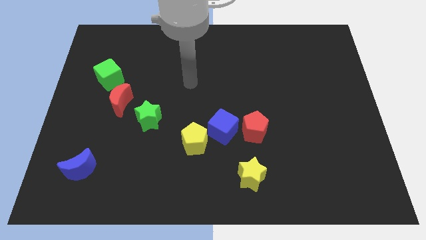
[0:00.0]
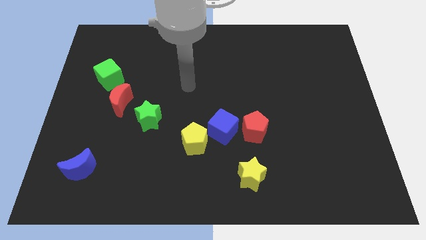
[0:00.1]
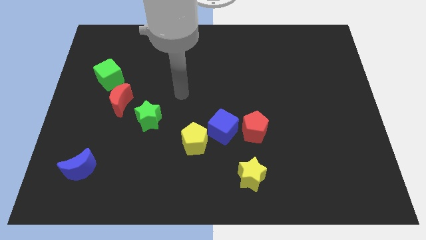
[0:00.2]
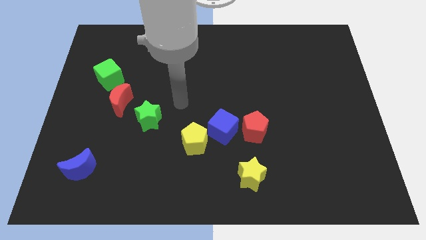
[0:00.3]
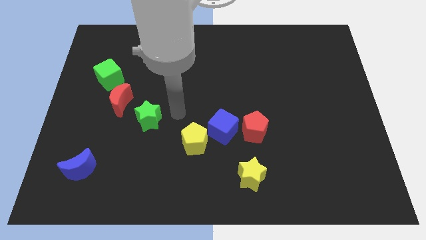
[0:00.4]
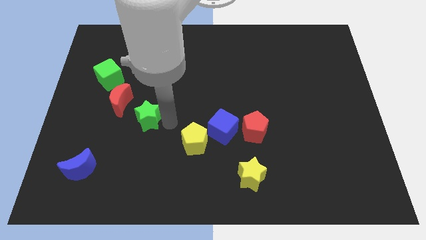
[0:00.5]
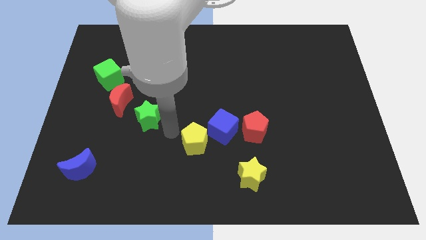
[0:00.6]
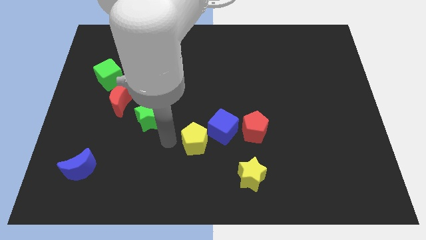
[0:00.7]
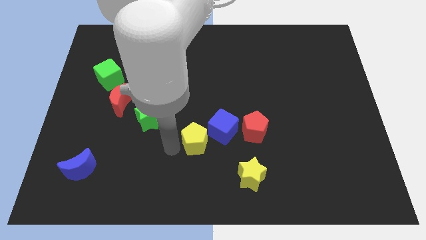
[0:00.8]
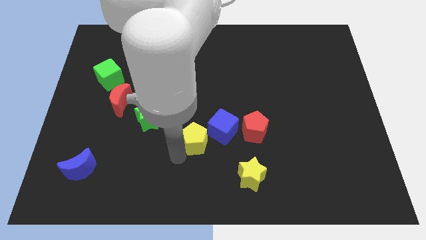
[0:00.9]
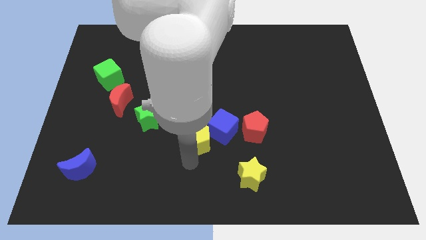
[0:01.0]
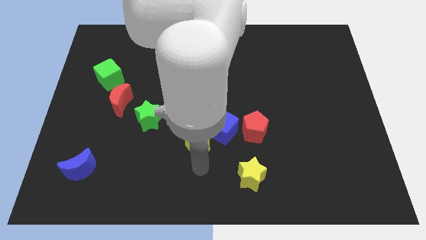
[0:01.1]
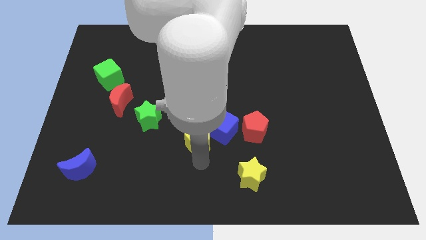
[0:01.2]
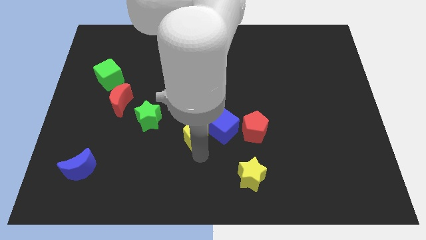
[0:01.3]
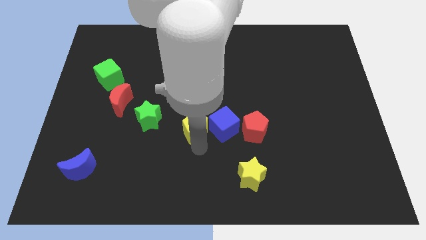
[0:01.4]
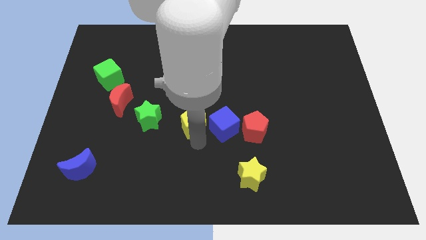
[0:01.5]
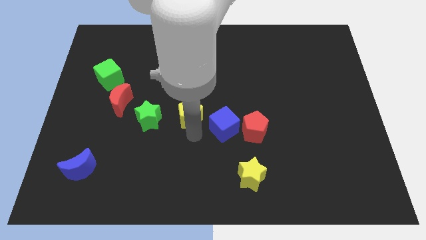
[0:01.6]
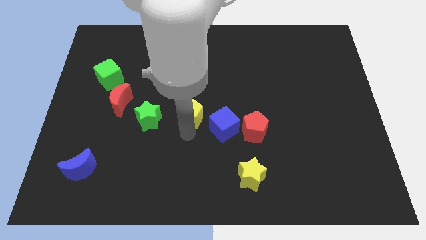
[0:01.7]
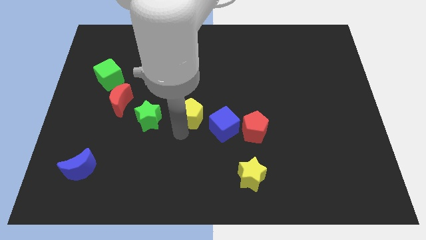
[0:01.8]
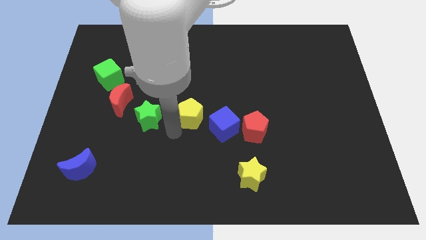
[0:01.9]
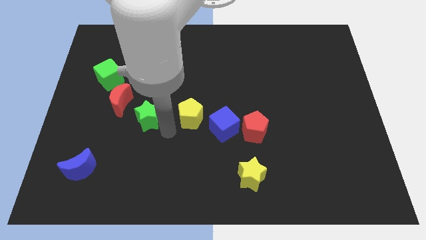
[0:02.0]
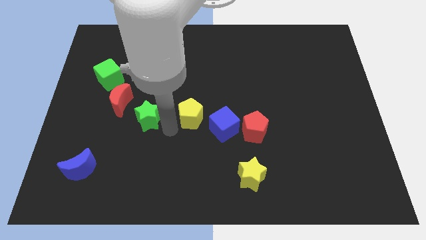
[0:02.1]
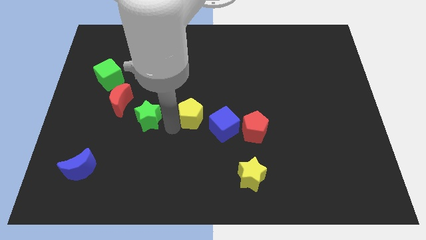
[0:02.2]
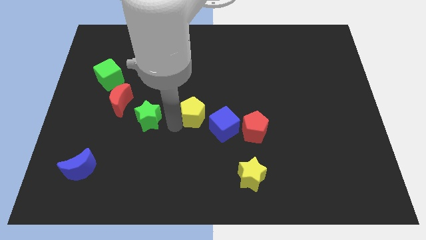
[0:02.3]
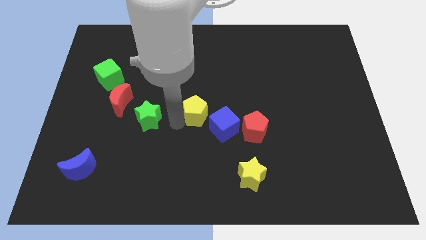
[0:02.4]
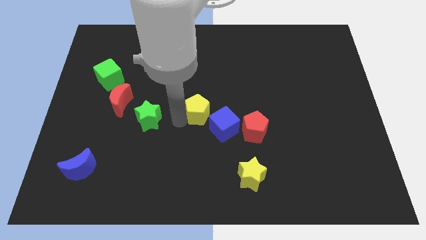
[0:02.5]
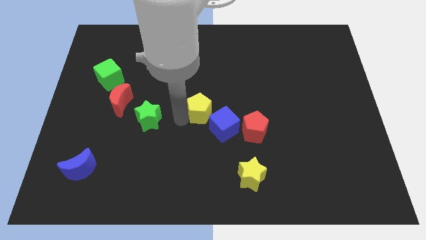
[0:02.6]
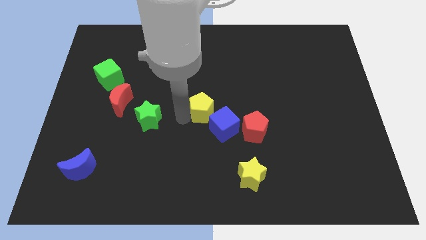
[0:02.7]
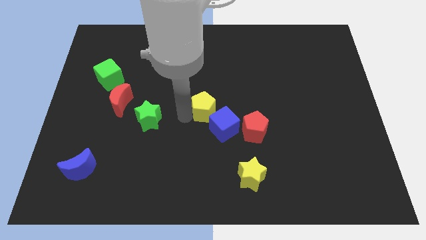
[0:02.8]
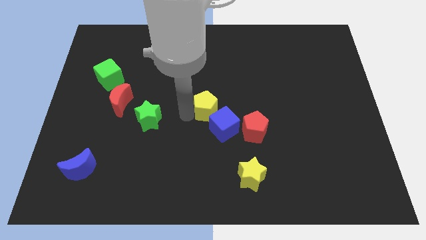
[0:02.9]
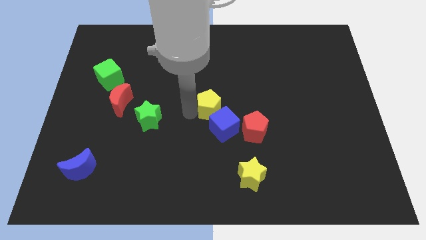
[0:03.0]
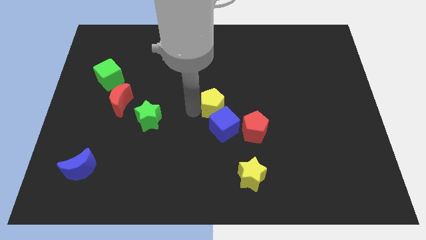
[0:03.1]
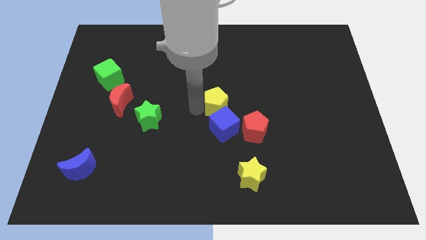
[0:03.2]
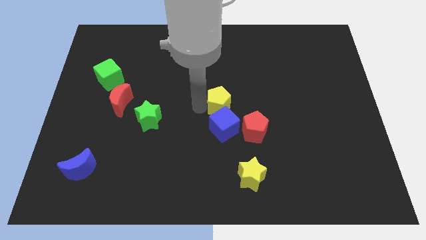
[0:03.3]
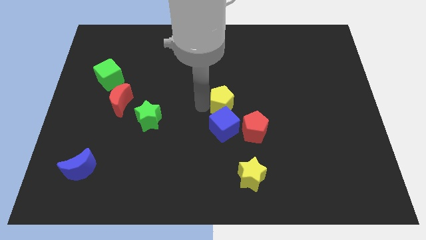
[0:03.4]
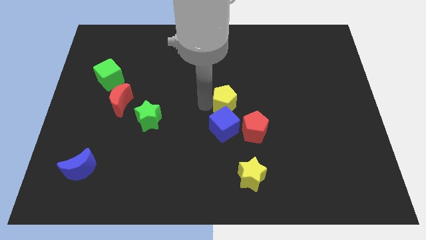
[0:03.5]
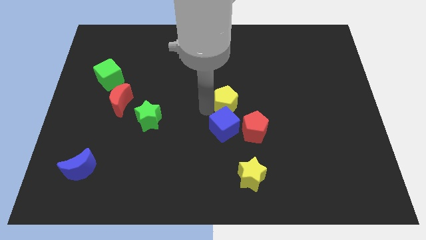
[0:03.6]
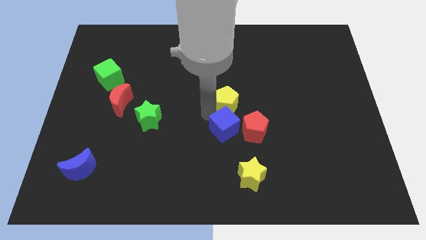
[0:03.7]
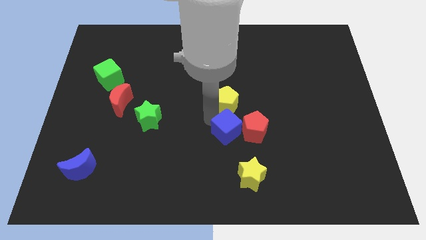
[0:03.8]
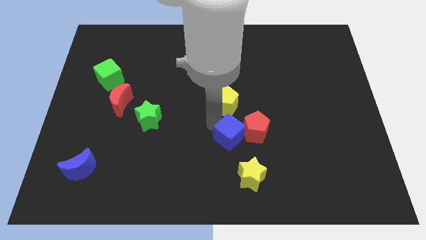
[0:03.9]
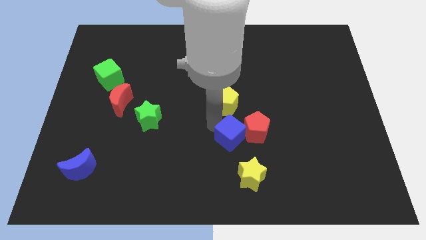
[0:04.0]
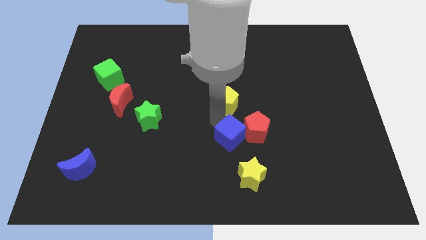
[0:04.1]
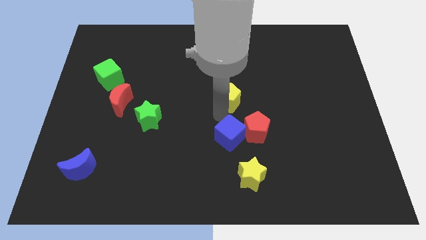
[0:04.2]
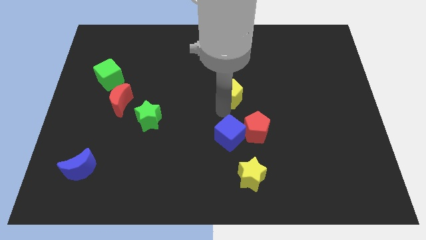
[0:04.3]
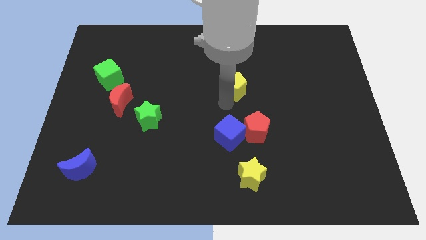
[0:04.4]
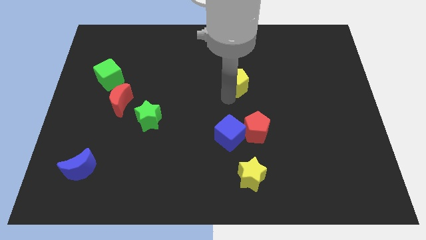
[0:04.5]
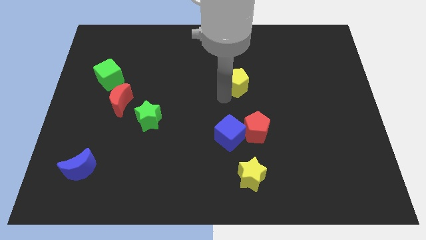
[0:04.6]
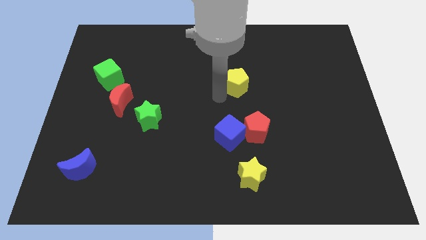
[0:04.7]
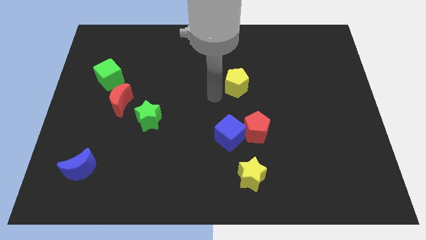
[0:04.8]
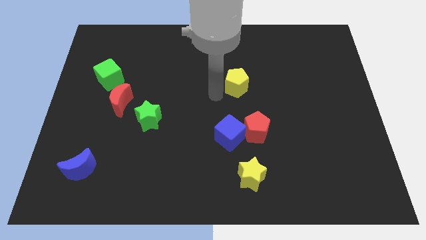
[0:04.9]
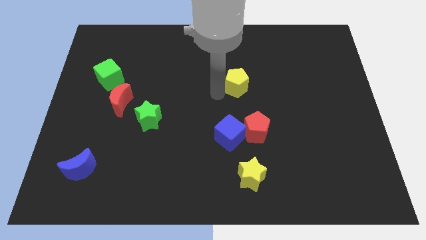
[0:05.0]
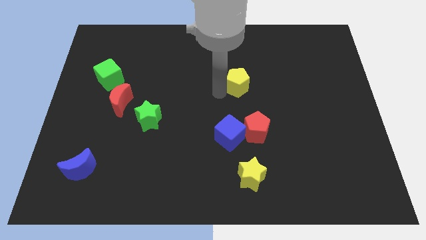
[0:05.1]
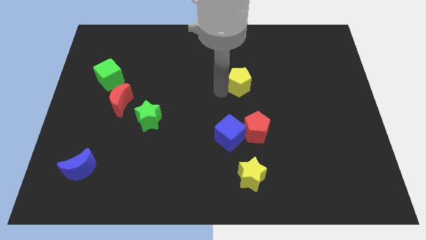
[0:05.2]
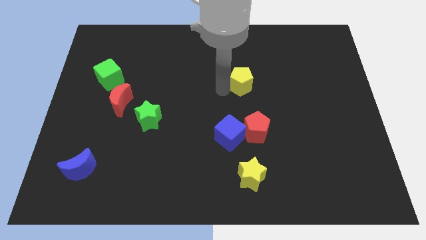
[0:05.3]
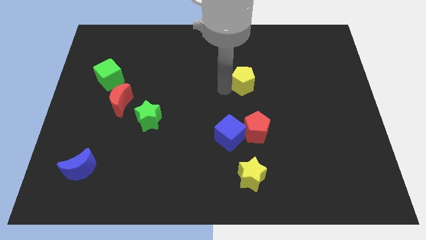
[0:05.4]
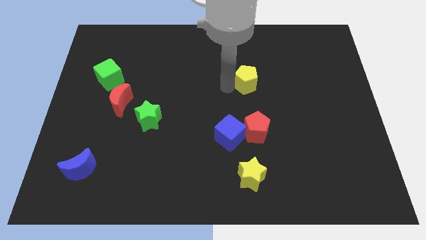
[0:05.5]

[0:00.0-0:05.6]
move the yellow pentagon diagonally upwards and right

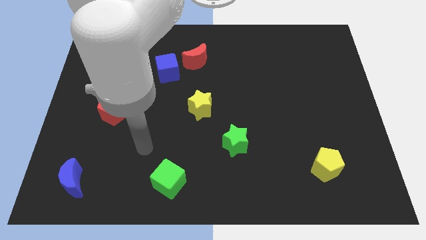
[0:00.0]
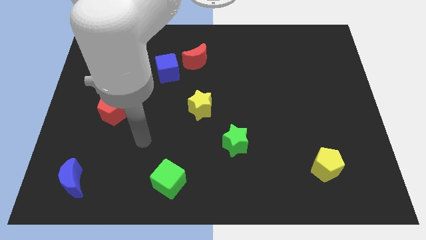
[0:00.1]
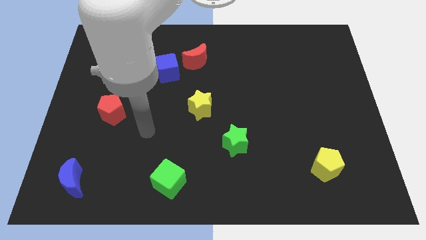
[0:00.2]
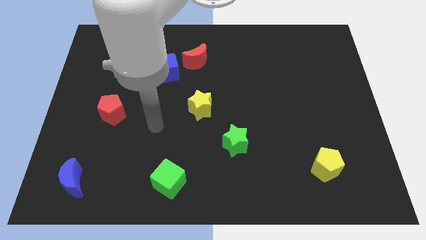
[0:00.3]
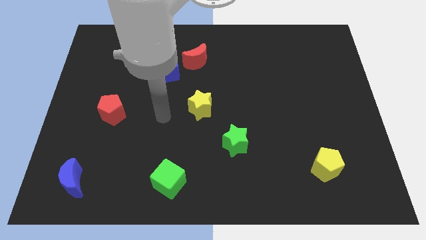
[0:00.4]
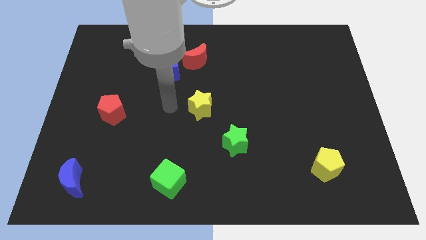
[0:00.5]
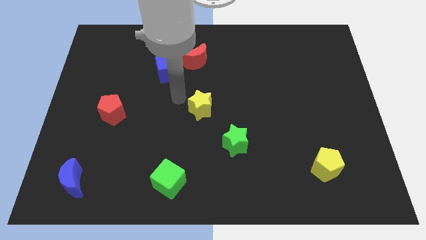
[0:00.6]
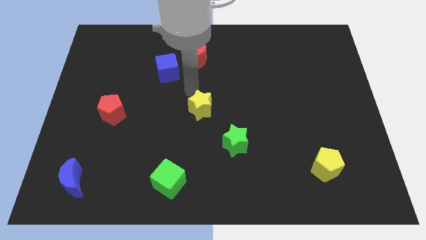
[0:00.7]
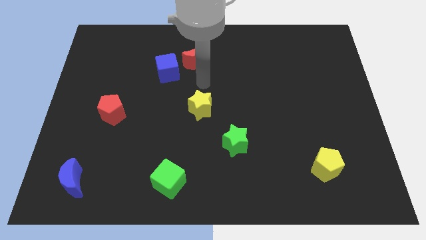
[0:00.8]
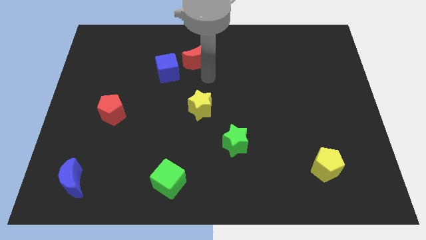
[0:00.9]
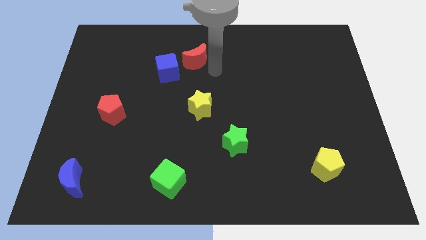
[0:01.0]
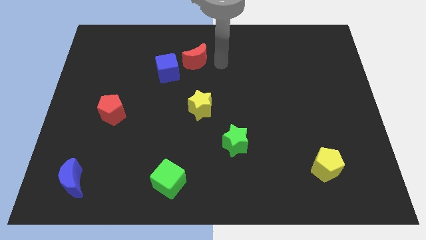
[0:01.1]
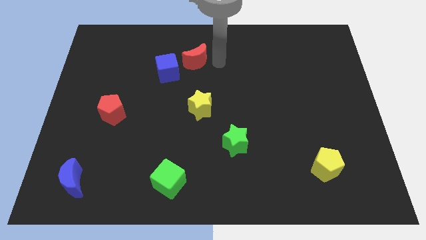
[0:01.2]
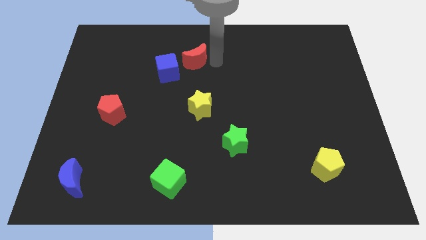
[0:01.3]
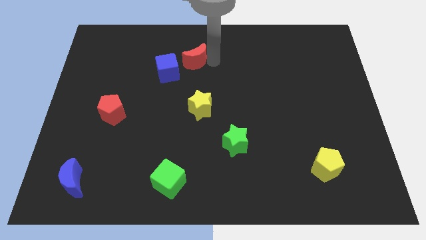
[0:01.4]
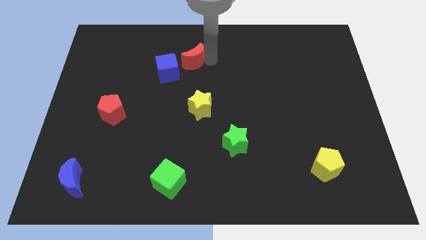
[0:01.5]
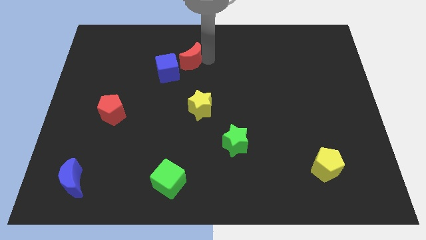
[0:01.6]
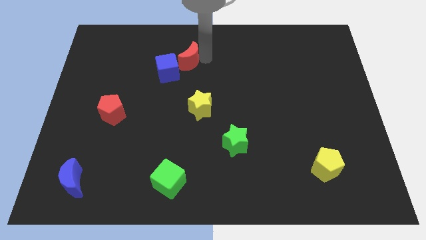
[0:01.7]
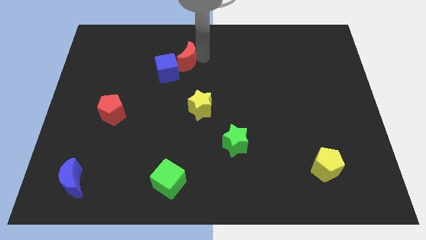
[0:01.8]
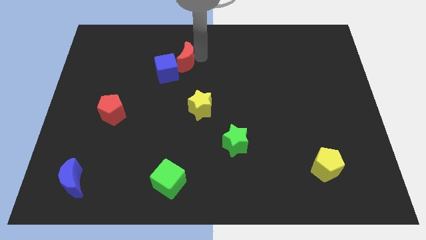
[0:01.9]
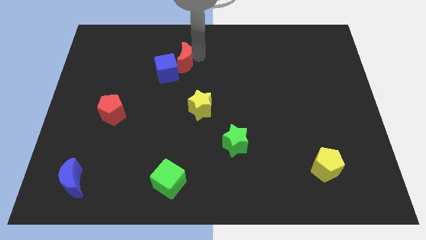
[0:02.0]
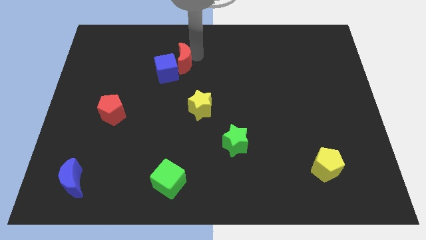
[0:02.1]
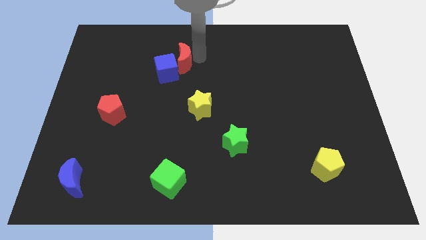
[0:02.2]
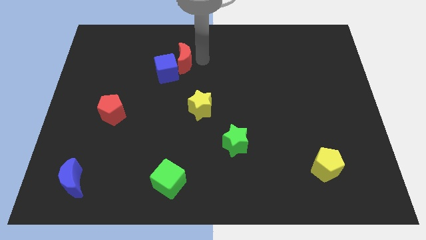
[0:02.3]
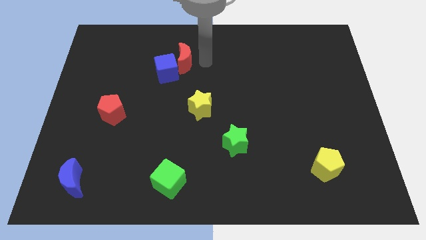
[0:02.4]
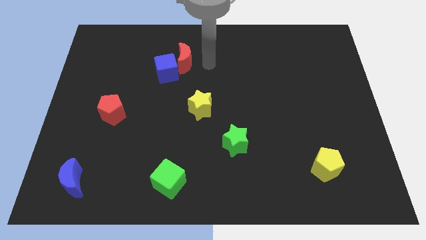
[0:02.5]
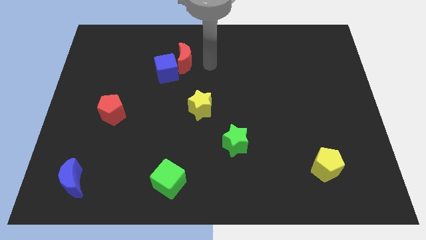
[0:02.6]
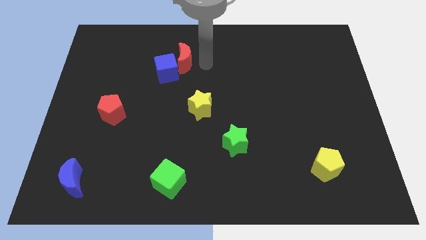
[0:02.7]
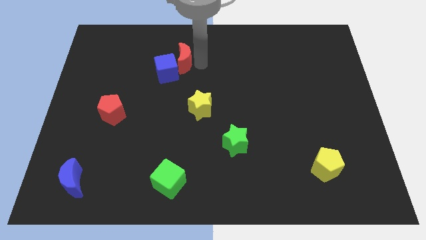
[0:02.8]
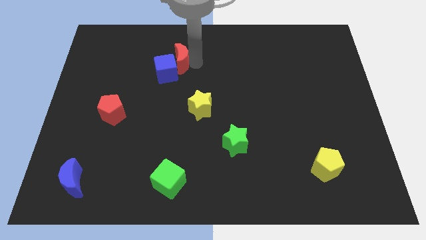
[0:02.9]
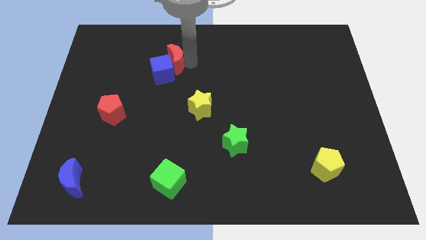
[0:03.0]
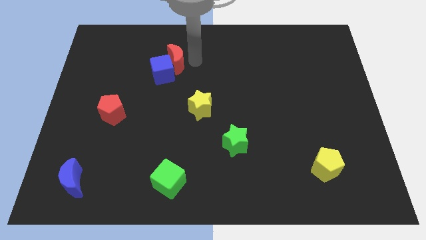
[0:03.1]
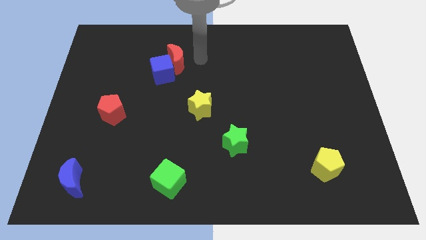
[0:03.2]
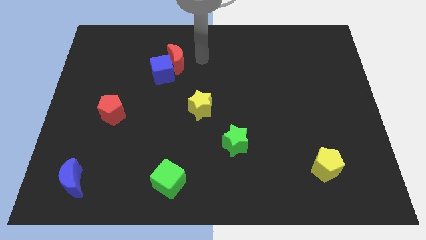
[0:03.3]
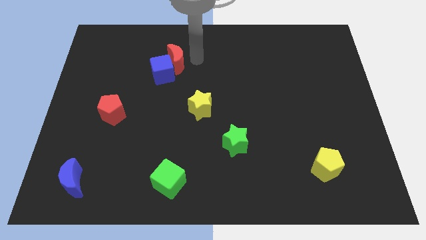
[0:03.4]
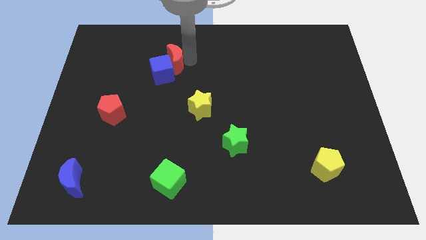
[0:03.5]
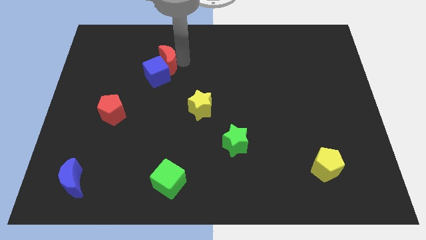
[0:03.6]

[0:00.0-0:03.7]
move the red moon a little bit to the left
